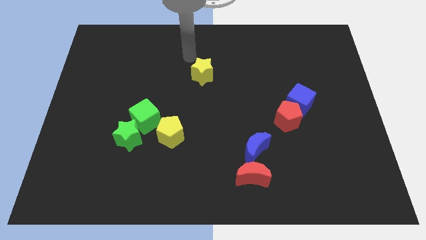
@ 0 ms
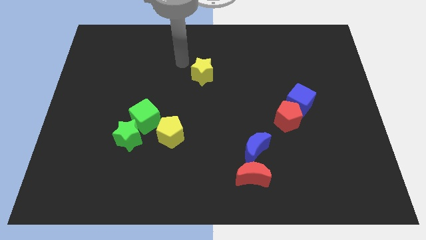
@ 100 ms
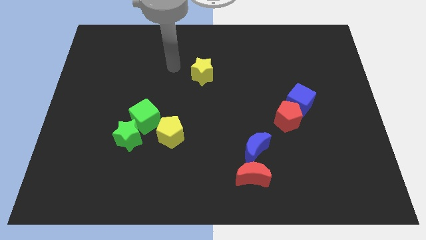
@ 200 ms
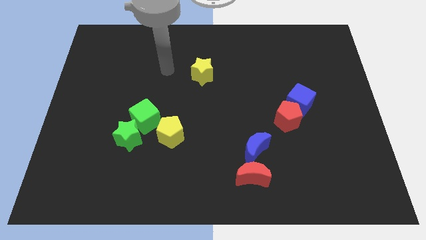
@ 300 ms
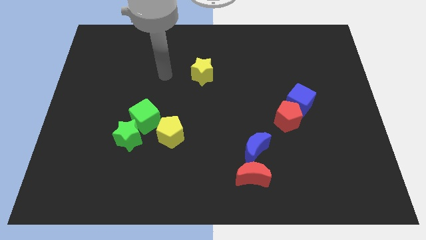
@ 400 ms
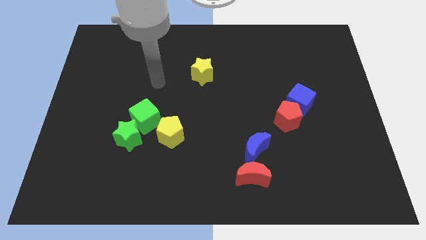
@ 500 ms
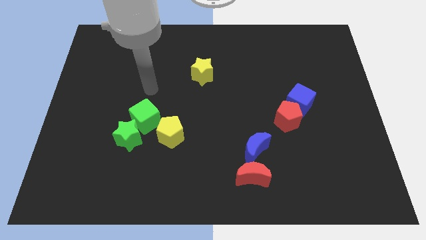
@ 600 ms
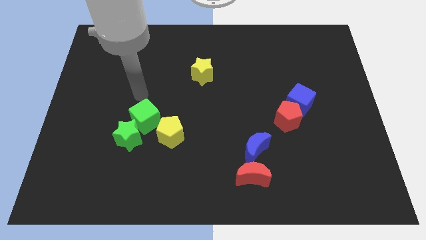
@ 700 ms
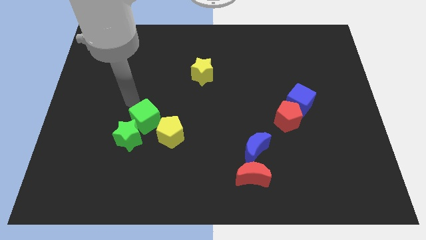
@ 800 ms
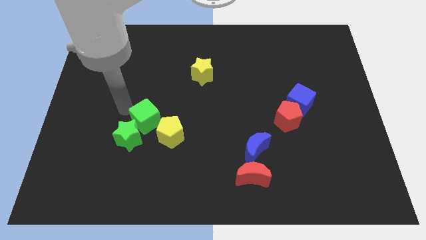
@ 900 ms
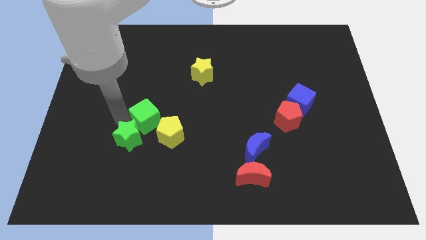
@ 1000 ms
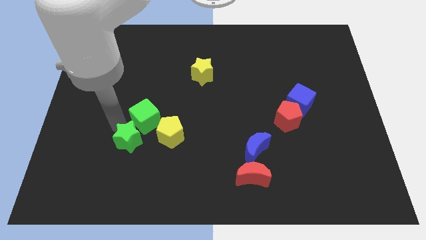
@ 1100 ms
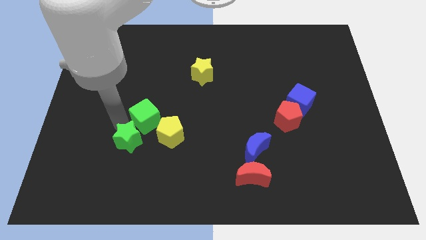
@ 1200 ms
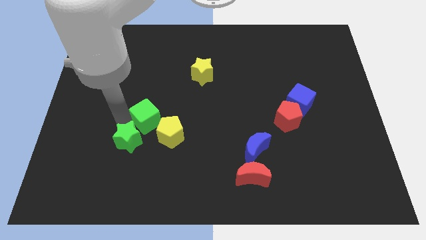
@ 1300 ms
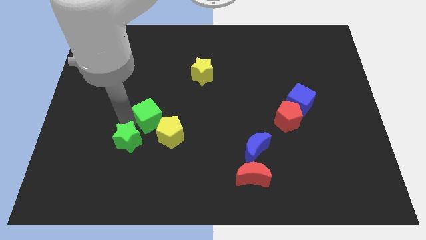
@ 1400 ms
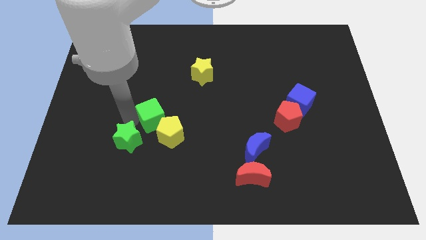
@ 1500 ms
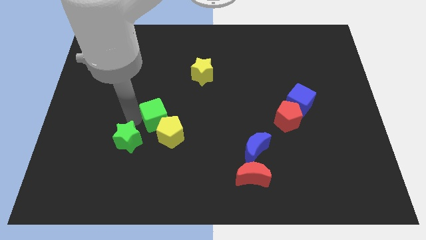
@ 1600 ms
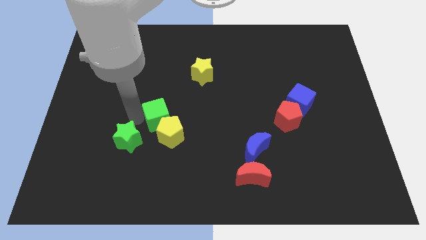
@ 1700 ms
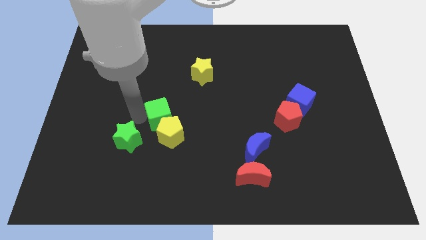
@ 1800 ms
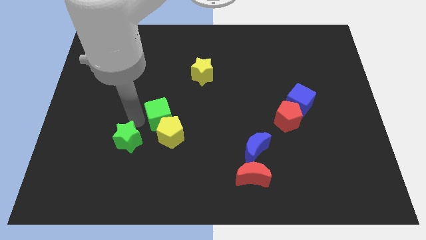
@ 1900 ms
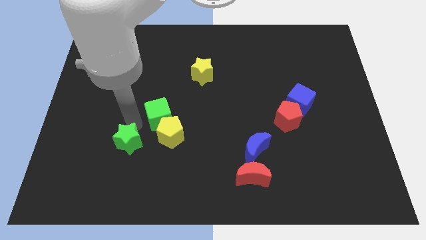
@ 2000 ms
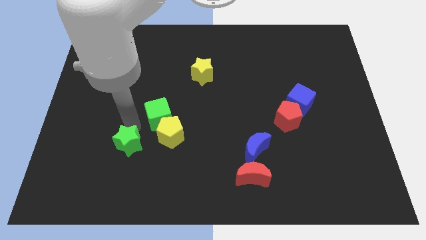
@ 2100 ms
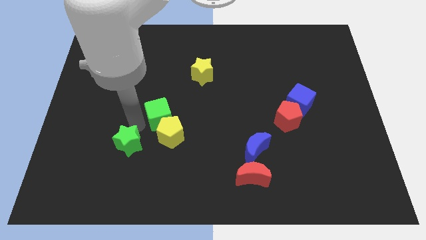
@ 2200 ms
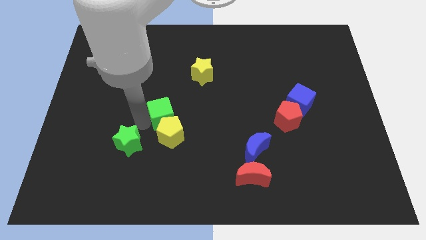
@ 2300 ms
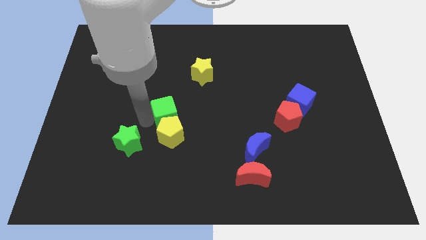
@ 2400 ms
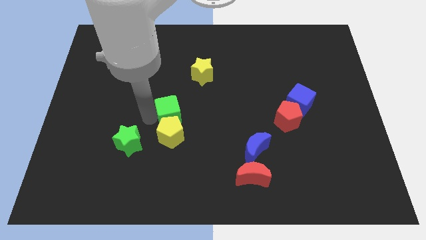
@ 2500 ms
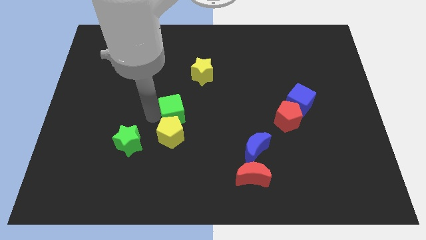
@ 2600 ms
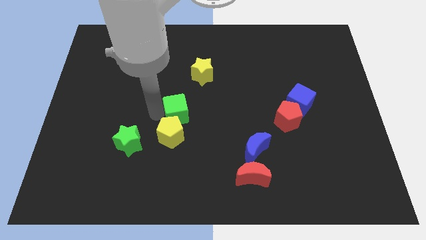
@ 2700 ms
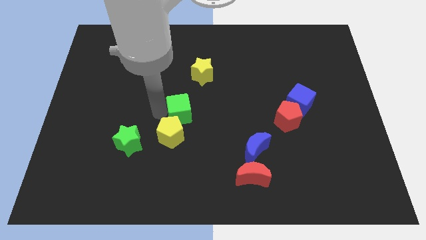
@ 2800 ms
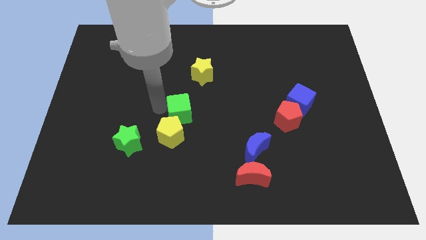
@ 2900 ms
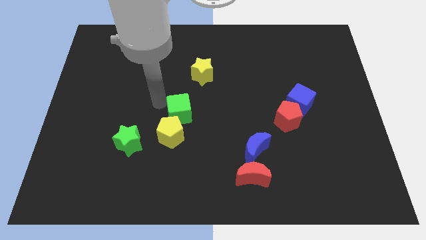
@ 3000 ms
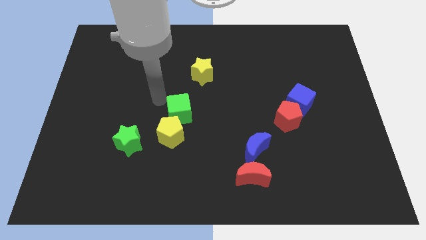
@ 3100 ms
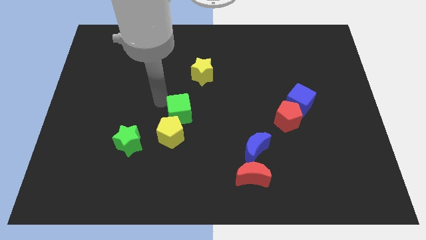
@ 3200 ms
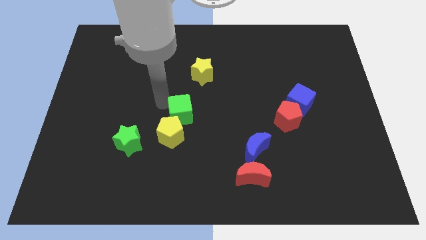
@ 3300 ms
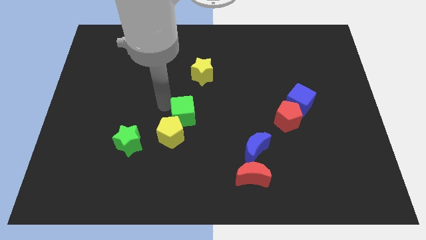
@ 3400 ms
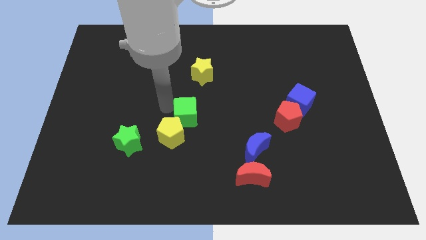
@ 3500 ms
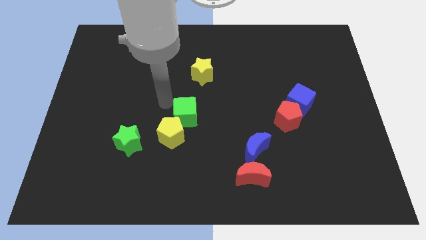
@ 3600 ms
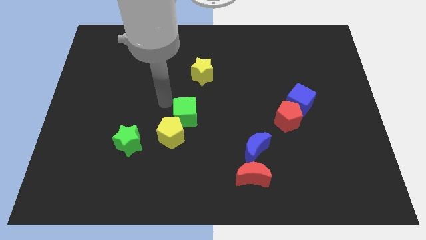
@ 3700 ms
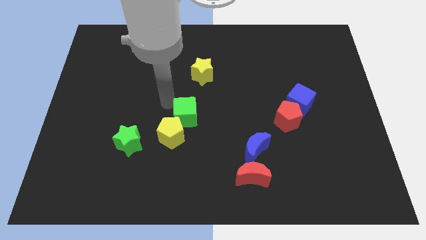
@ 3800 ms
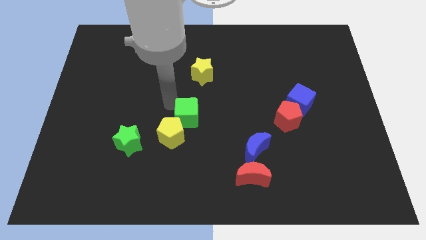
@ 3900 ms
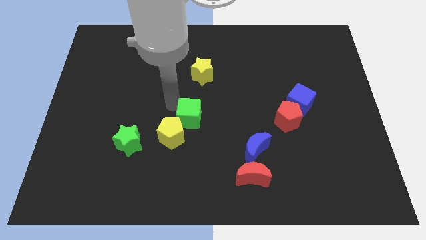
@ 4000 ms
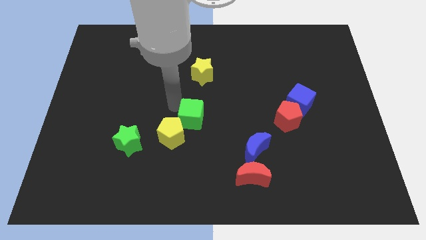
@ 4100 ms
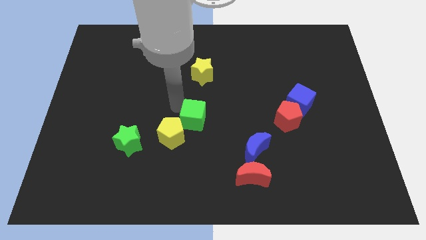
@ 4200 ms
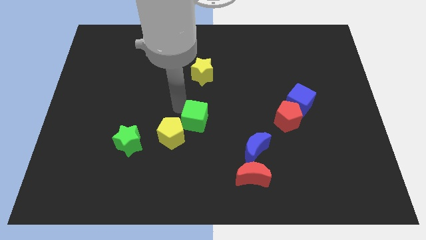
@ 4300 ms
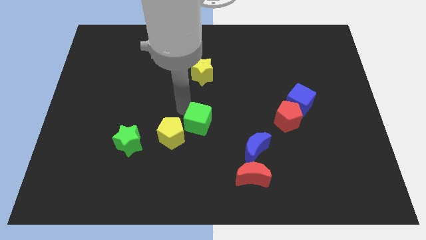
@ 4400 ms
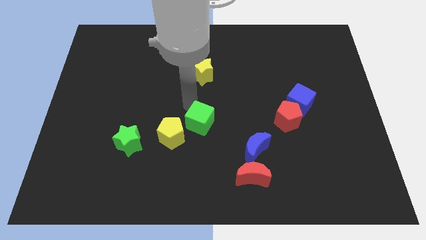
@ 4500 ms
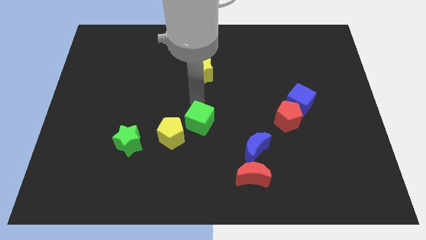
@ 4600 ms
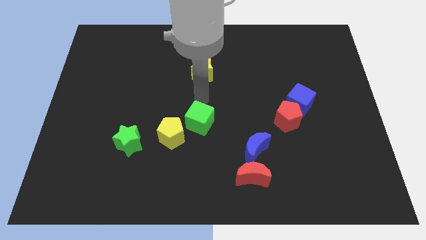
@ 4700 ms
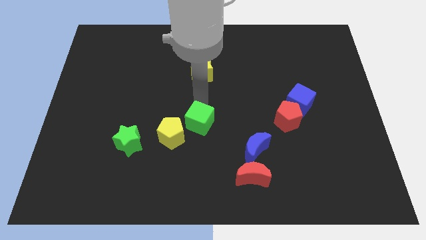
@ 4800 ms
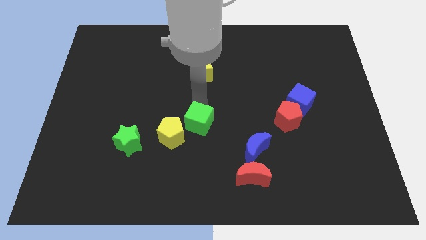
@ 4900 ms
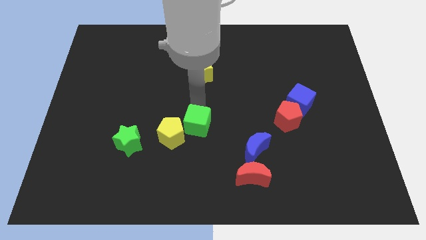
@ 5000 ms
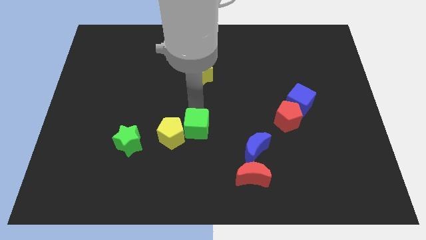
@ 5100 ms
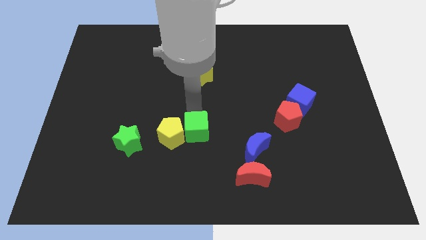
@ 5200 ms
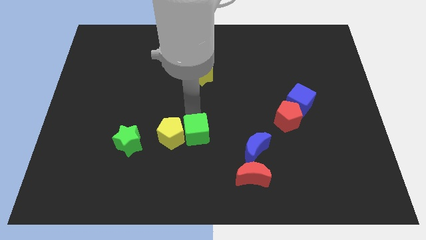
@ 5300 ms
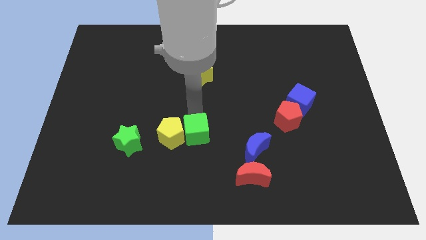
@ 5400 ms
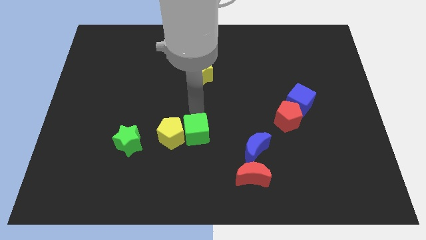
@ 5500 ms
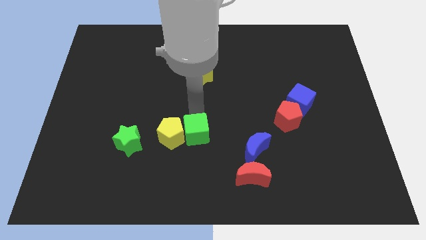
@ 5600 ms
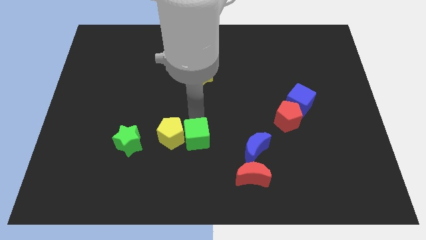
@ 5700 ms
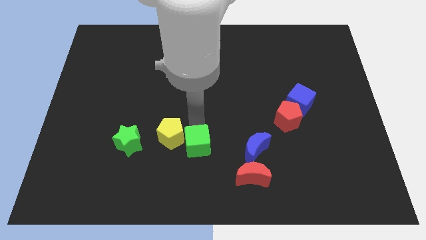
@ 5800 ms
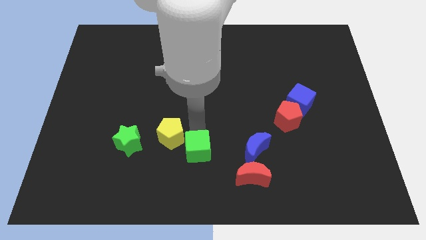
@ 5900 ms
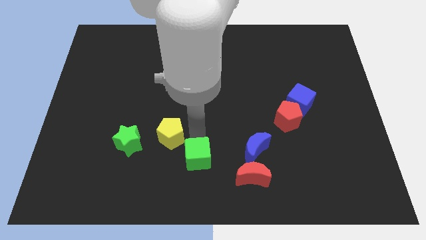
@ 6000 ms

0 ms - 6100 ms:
push the green cube to the left of the red moon

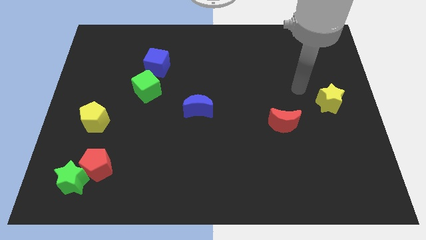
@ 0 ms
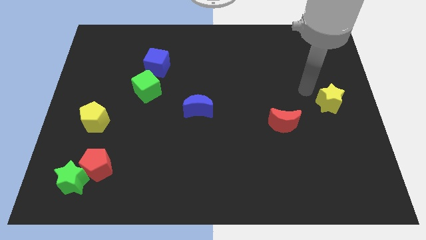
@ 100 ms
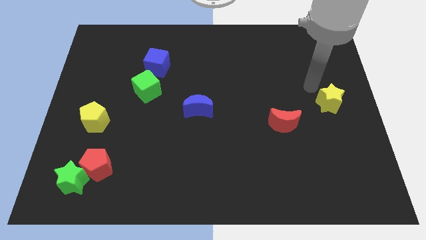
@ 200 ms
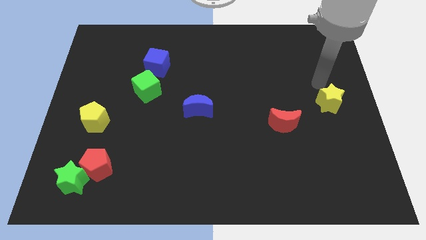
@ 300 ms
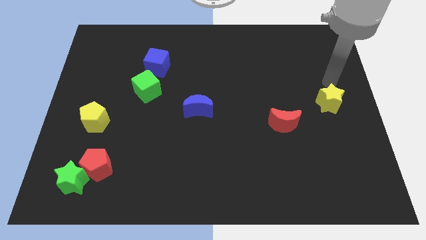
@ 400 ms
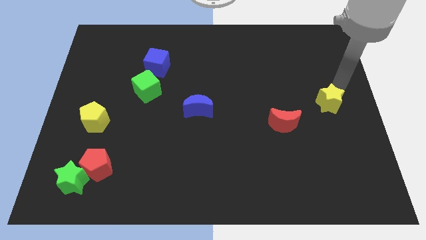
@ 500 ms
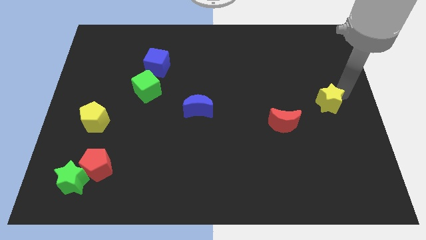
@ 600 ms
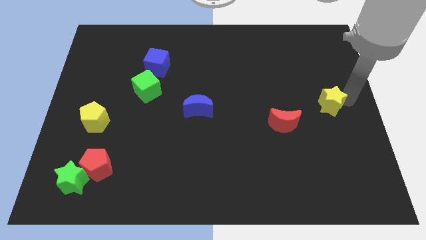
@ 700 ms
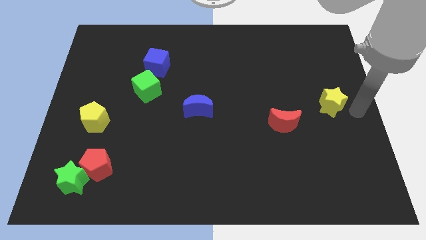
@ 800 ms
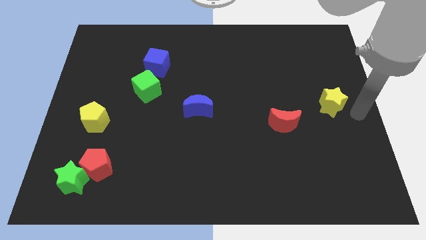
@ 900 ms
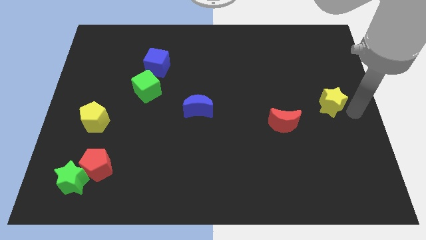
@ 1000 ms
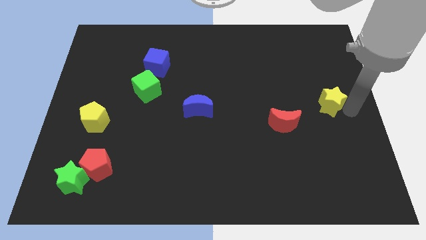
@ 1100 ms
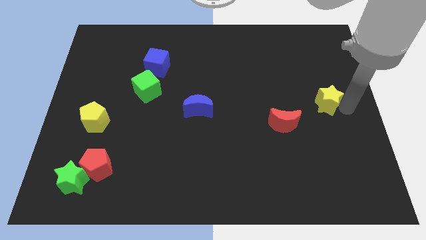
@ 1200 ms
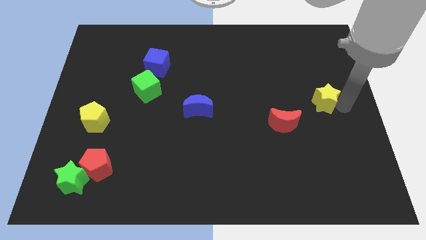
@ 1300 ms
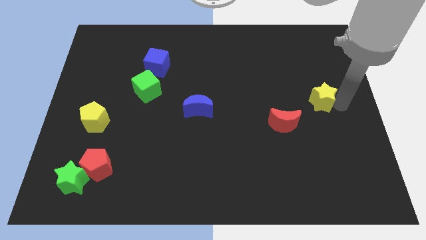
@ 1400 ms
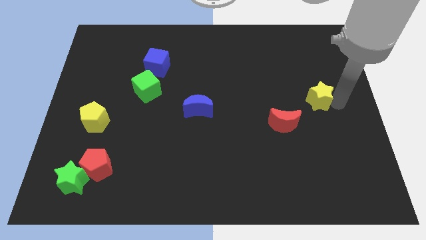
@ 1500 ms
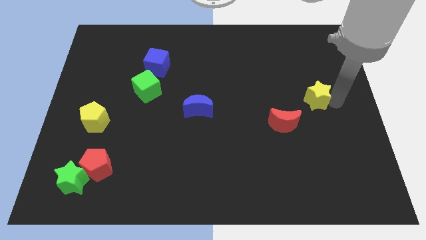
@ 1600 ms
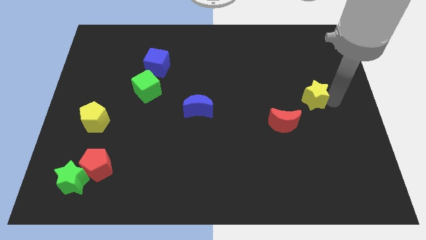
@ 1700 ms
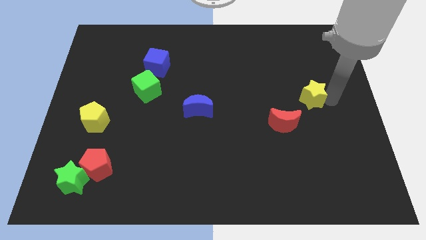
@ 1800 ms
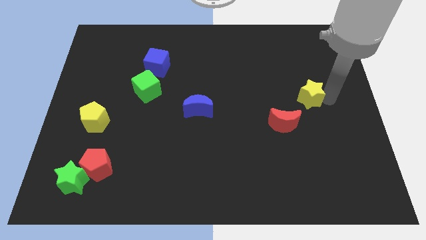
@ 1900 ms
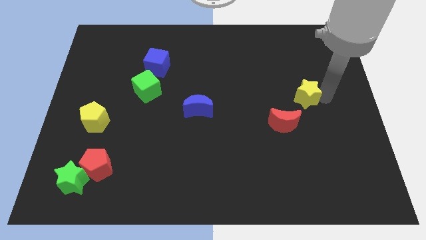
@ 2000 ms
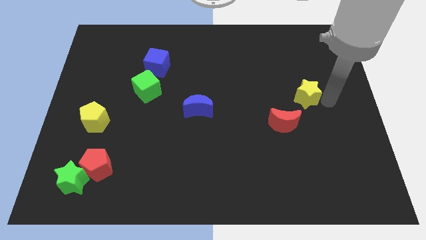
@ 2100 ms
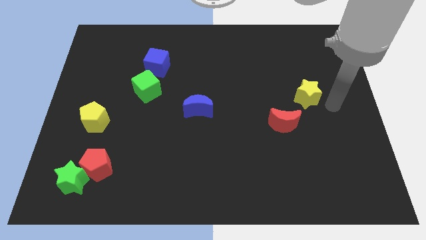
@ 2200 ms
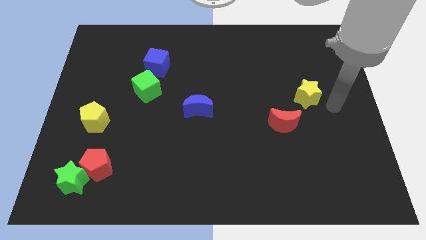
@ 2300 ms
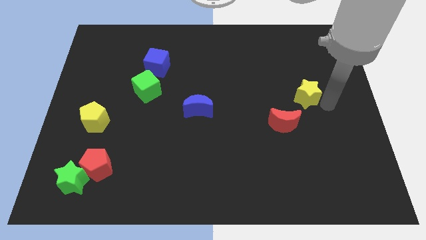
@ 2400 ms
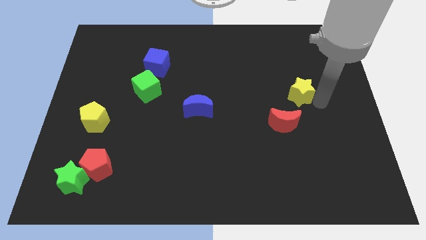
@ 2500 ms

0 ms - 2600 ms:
slide the yellow star above the red moon
